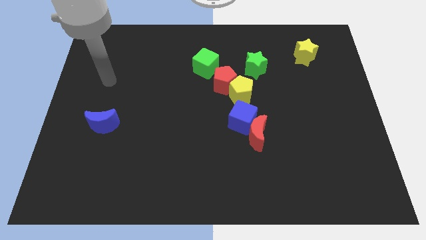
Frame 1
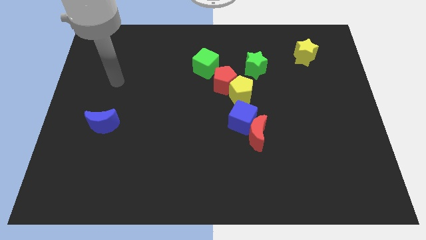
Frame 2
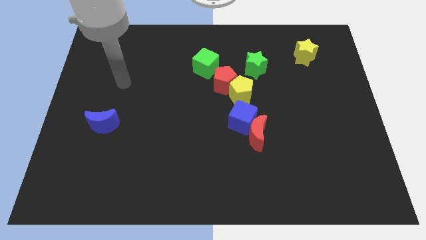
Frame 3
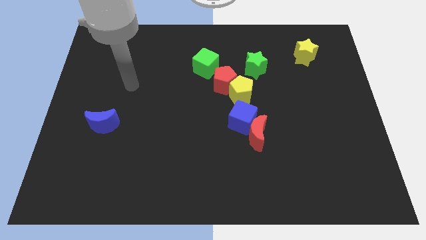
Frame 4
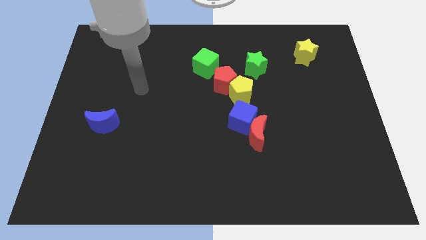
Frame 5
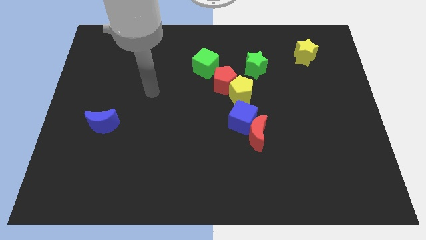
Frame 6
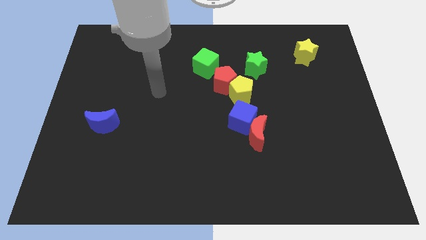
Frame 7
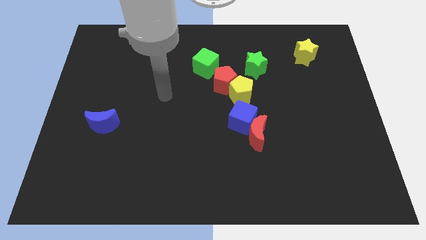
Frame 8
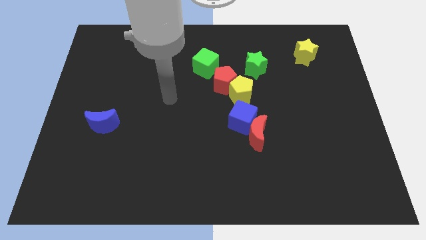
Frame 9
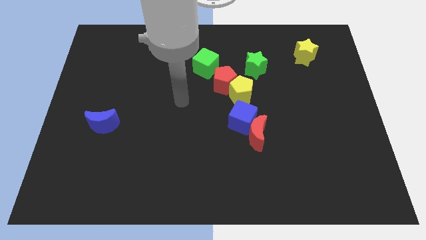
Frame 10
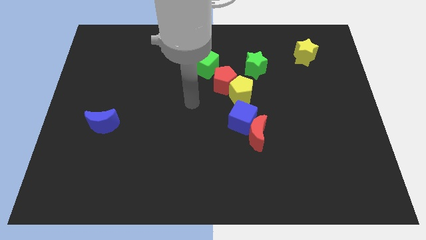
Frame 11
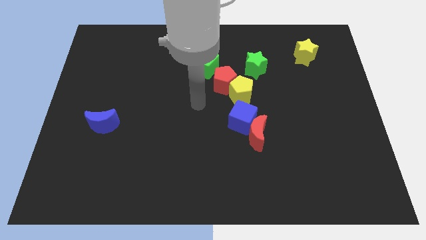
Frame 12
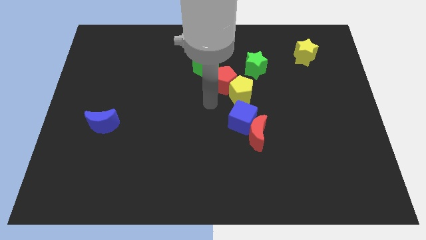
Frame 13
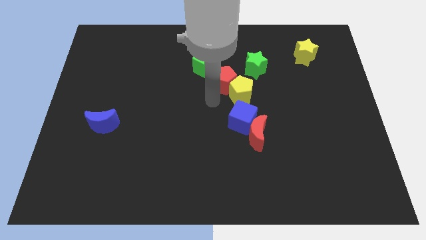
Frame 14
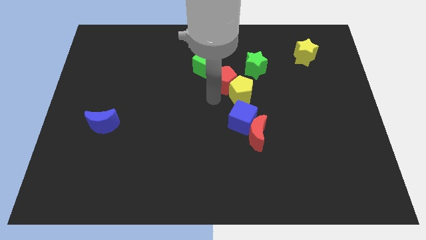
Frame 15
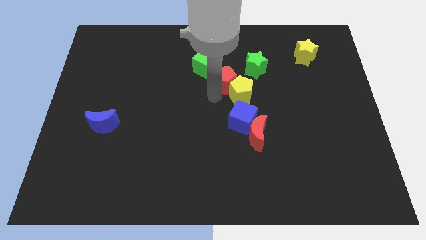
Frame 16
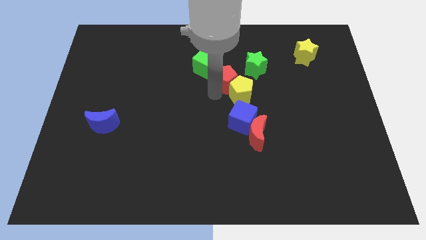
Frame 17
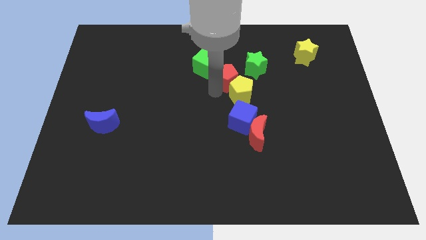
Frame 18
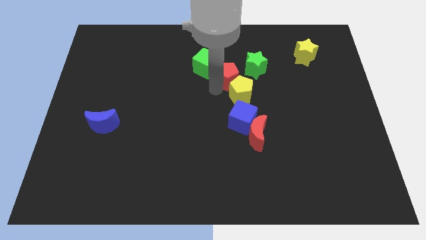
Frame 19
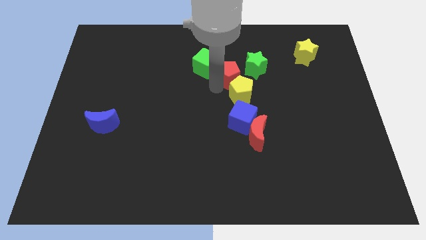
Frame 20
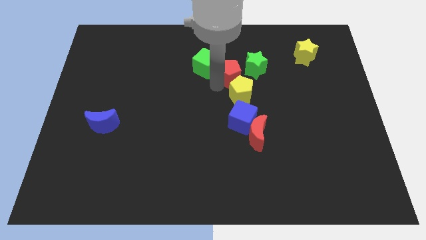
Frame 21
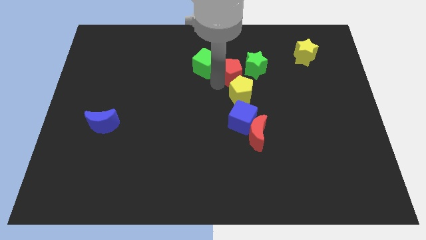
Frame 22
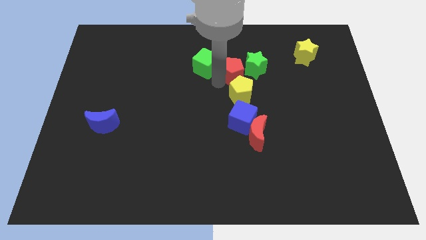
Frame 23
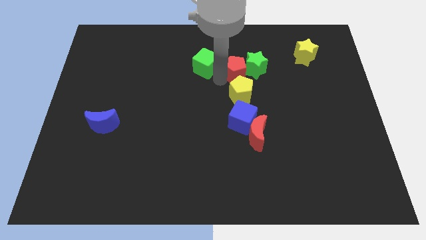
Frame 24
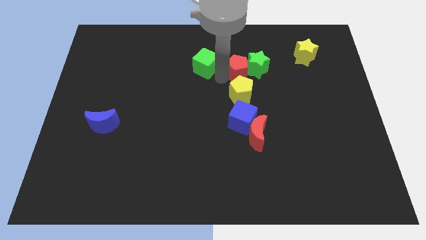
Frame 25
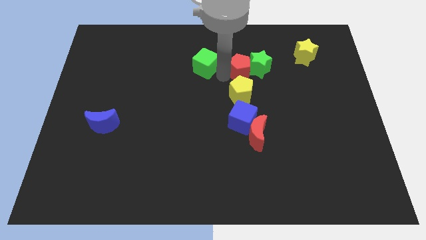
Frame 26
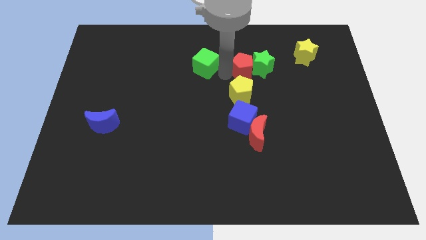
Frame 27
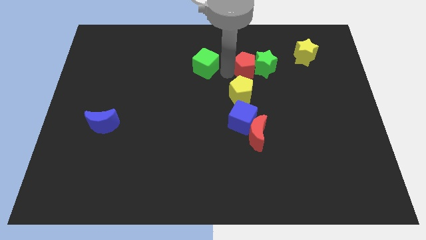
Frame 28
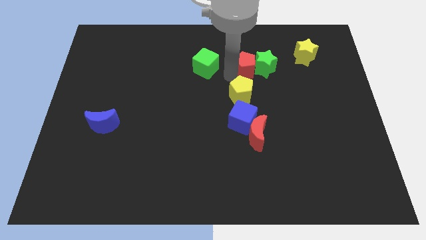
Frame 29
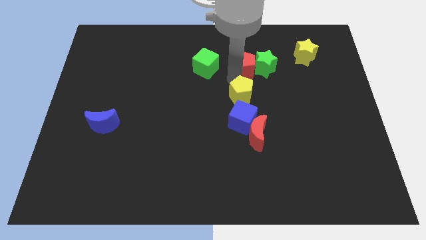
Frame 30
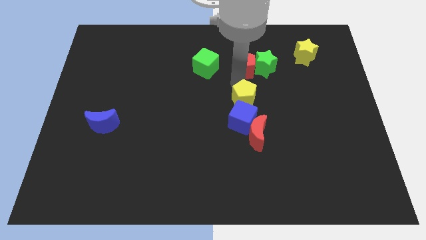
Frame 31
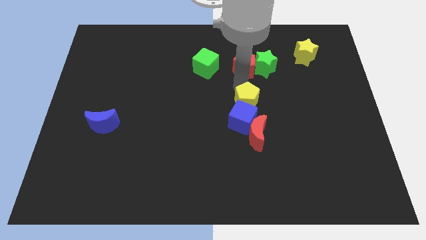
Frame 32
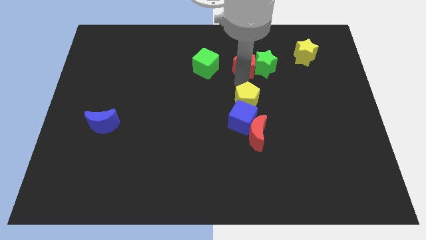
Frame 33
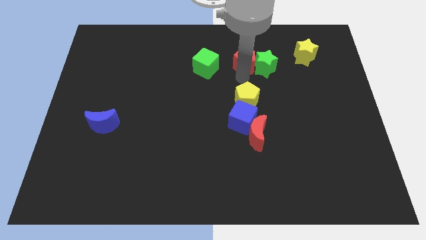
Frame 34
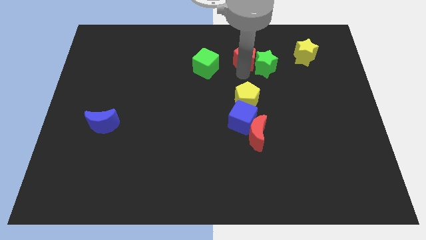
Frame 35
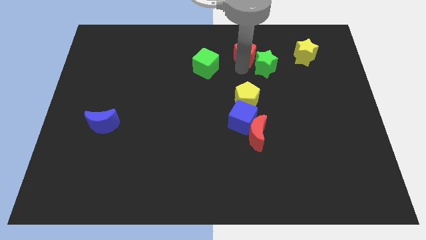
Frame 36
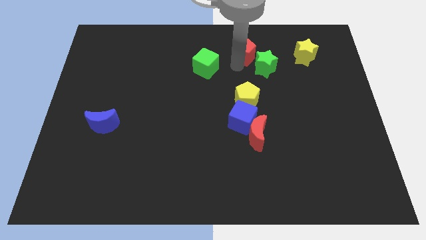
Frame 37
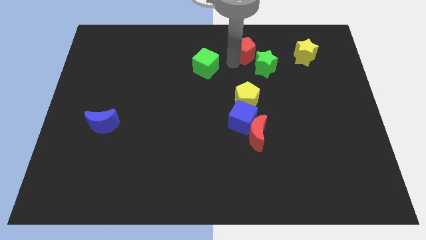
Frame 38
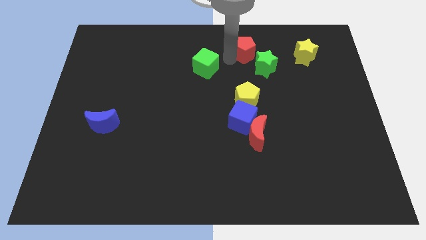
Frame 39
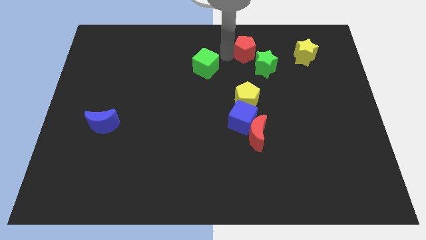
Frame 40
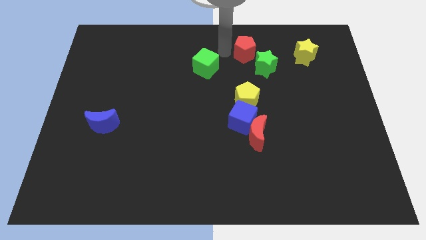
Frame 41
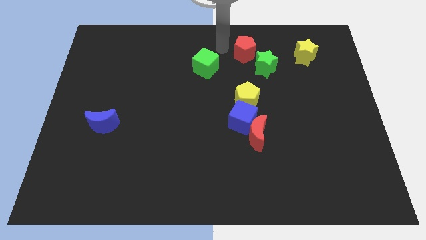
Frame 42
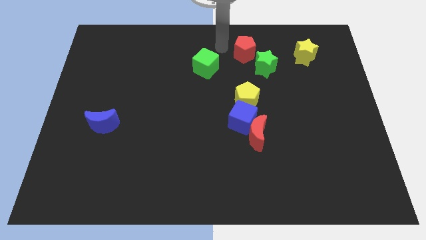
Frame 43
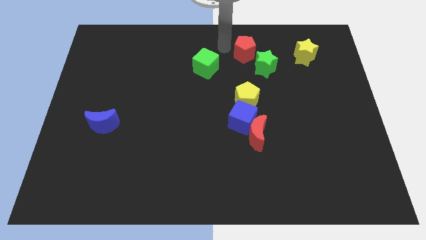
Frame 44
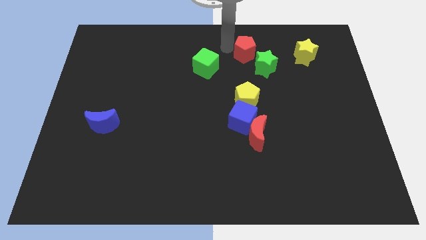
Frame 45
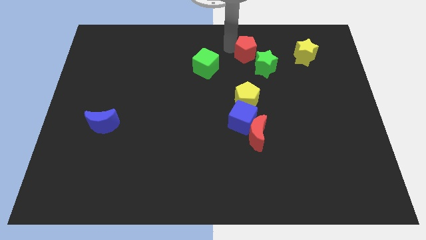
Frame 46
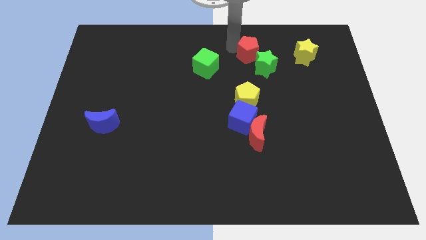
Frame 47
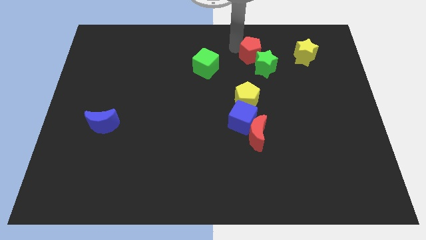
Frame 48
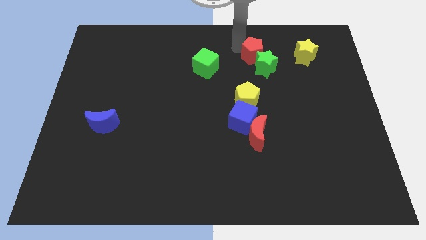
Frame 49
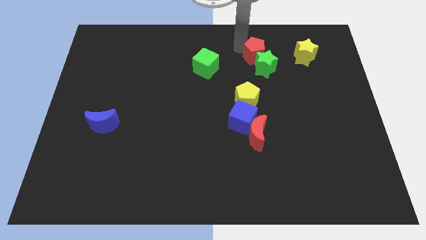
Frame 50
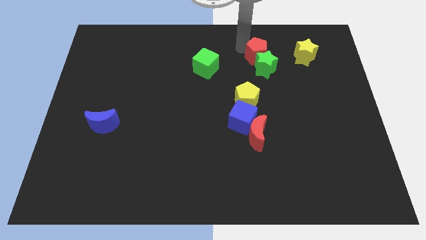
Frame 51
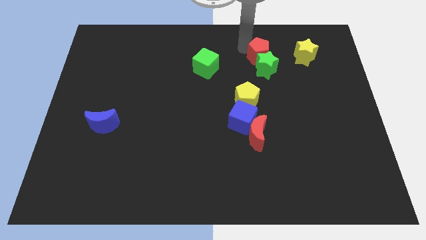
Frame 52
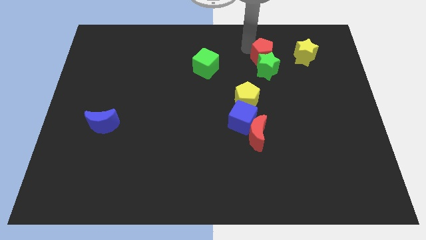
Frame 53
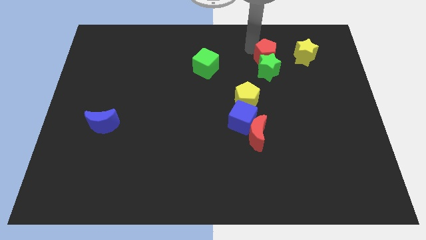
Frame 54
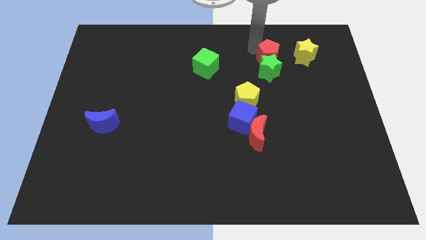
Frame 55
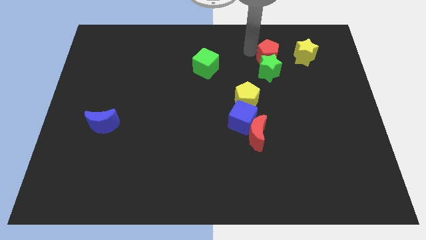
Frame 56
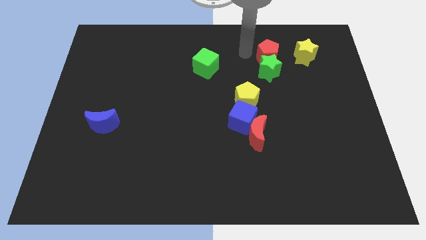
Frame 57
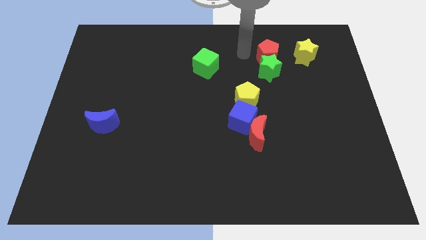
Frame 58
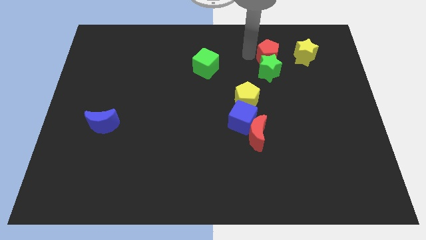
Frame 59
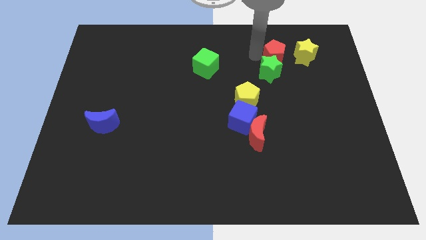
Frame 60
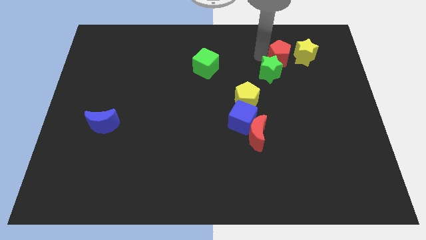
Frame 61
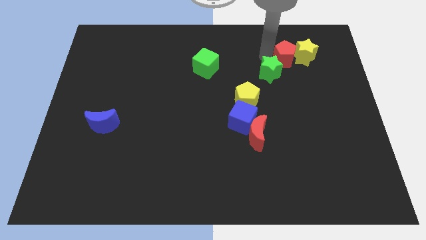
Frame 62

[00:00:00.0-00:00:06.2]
put the red pentagon towards the yellow star

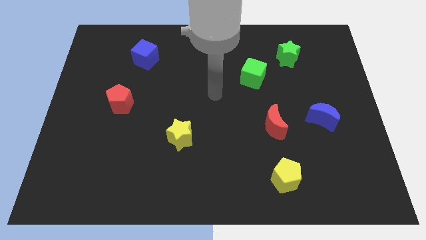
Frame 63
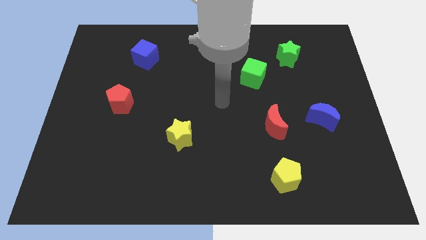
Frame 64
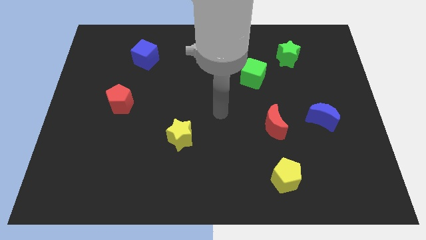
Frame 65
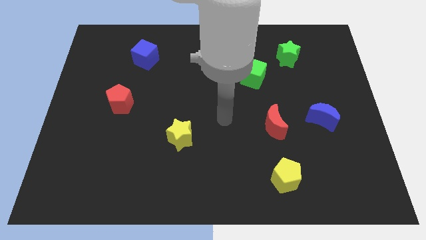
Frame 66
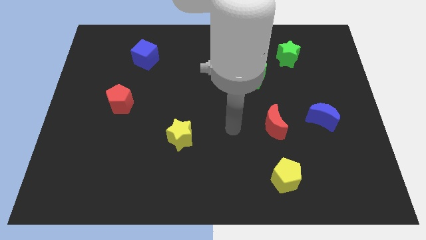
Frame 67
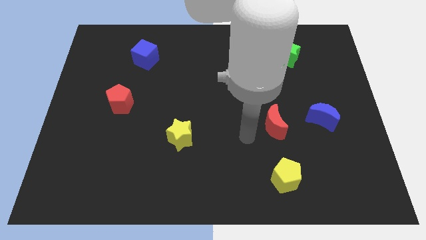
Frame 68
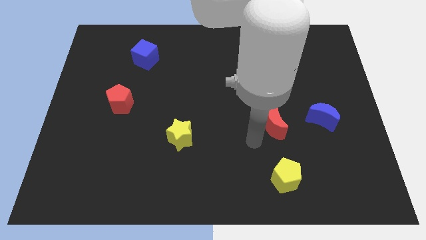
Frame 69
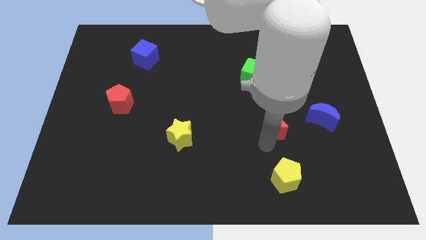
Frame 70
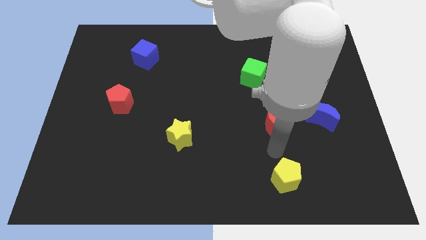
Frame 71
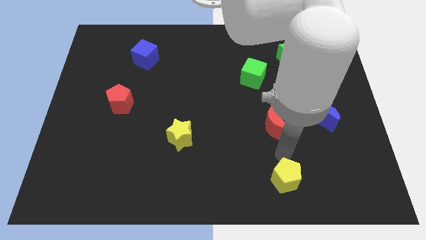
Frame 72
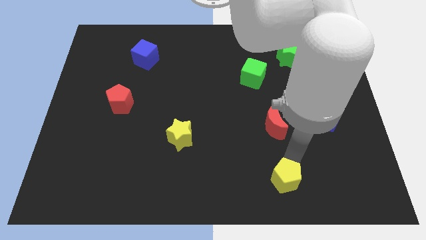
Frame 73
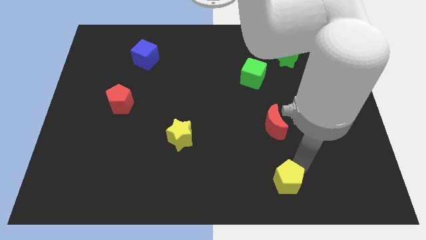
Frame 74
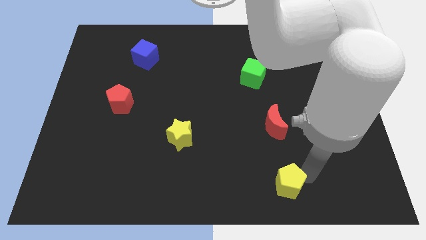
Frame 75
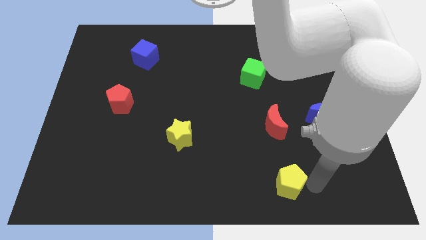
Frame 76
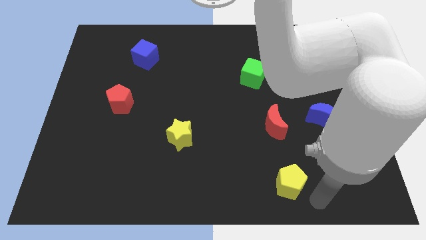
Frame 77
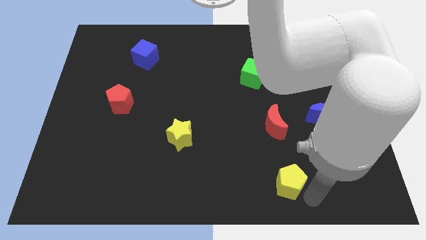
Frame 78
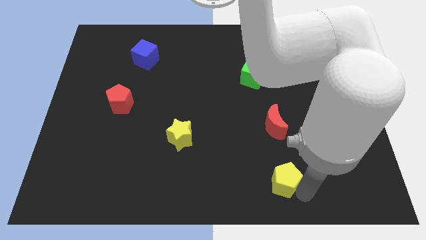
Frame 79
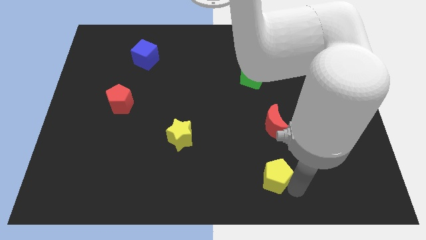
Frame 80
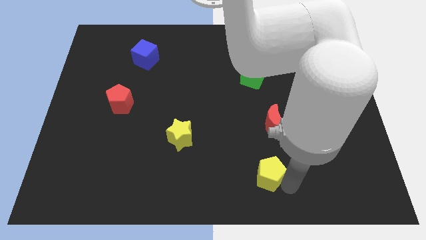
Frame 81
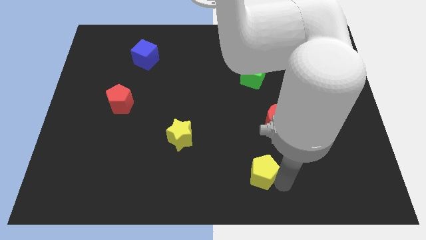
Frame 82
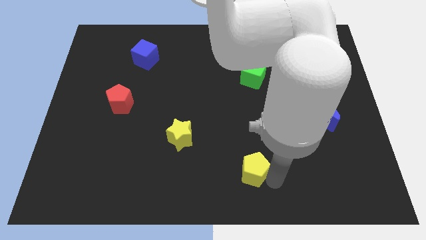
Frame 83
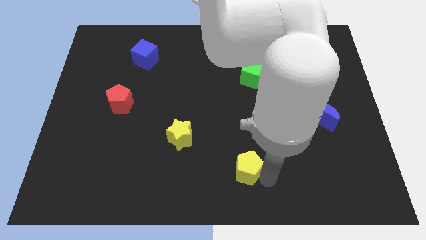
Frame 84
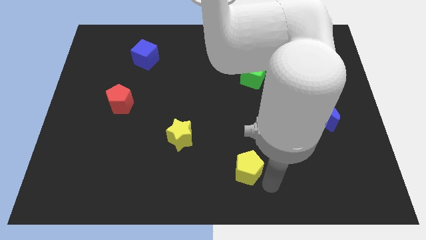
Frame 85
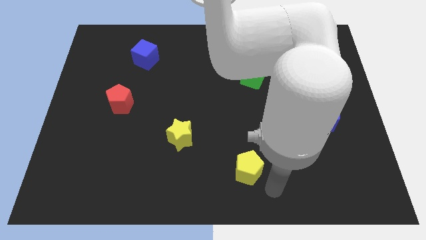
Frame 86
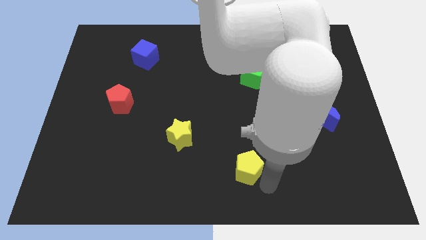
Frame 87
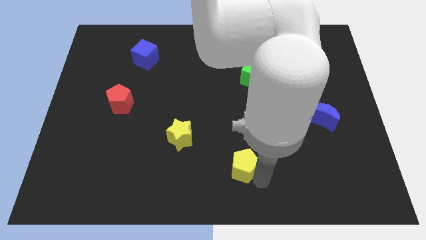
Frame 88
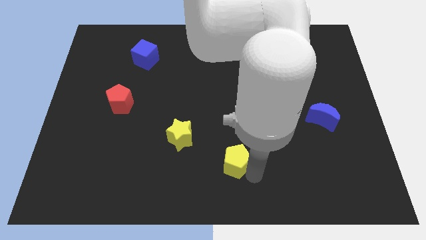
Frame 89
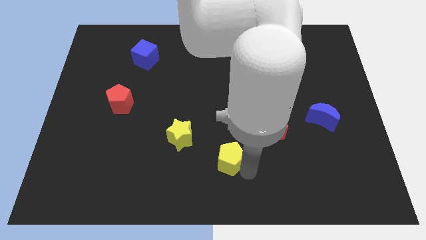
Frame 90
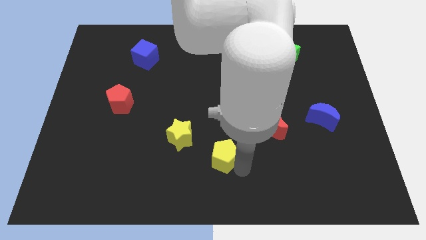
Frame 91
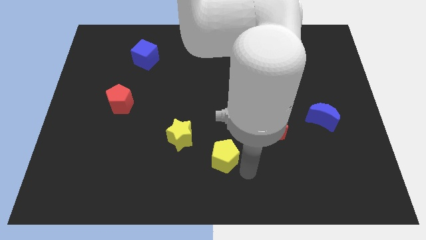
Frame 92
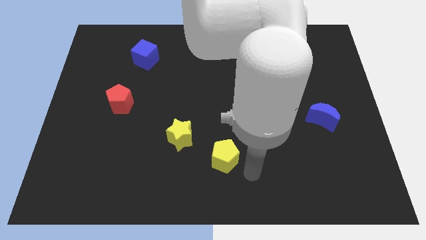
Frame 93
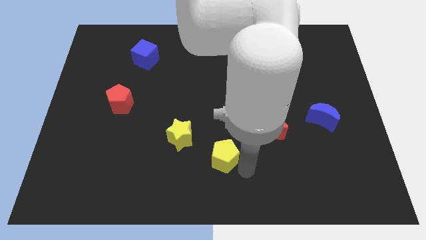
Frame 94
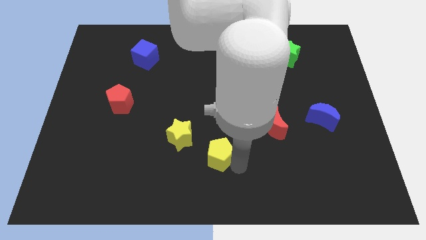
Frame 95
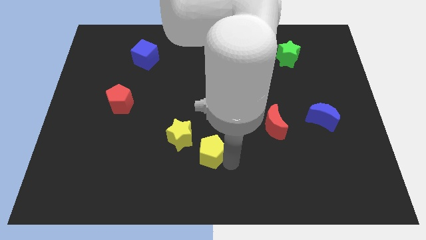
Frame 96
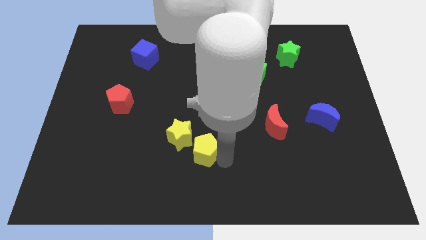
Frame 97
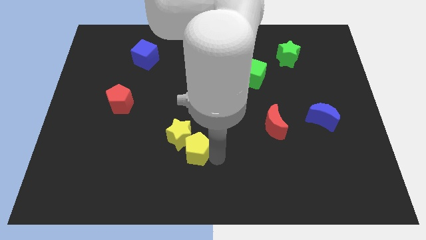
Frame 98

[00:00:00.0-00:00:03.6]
slide the yellow pentagon towards the yellow star
